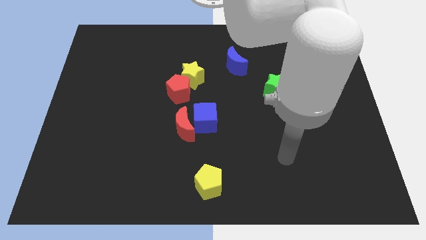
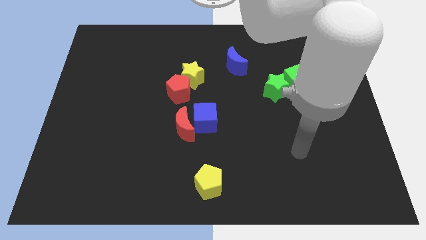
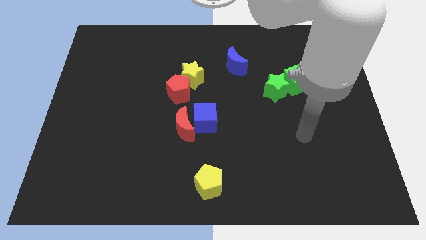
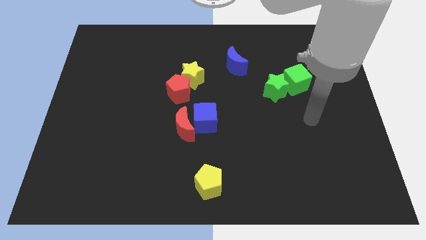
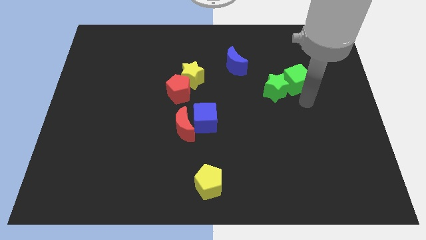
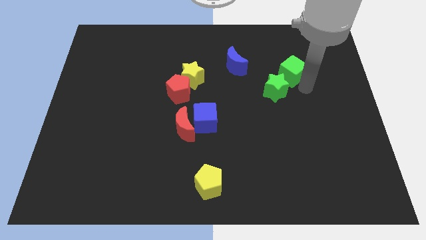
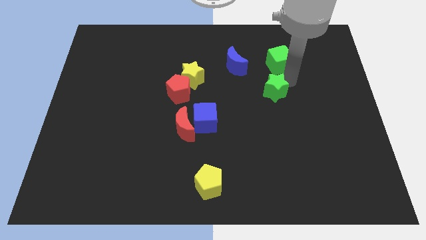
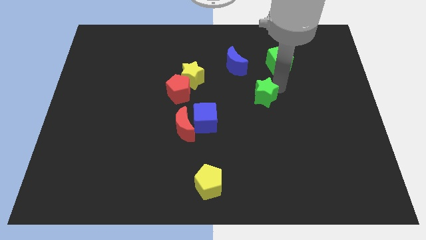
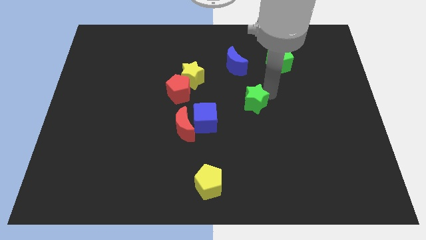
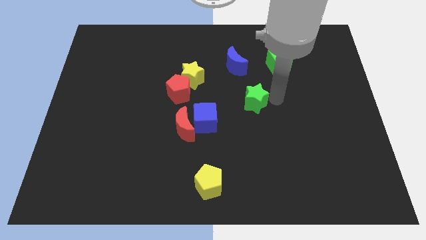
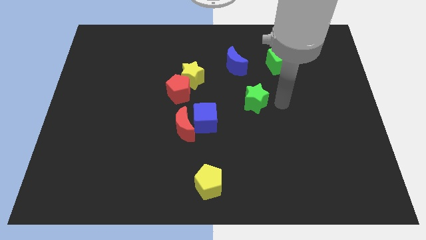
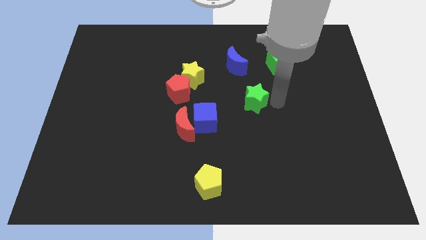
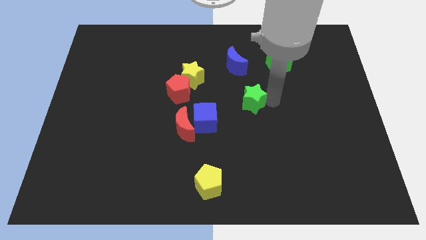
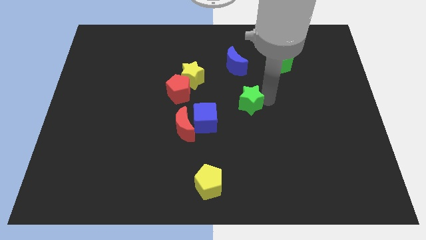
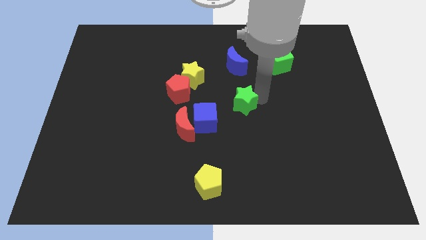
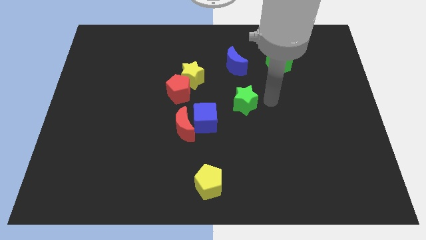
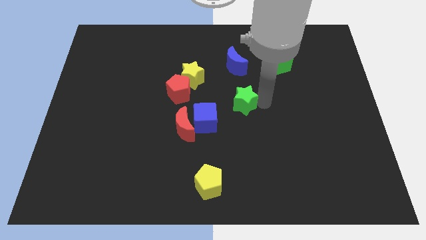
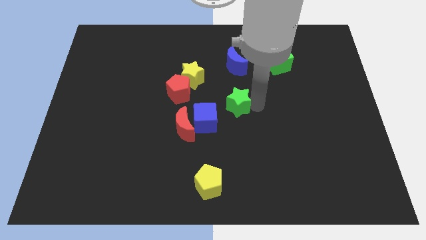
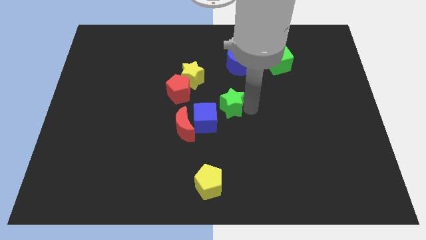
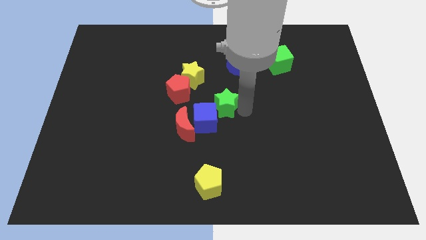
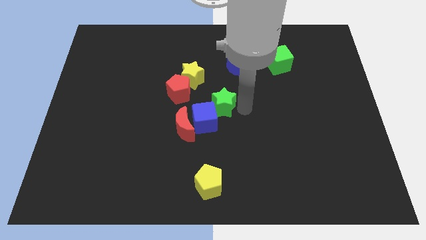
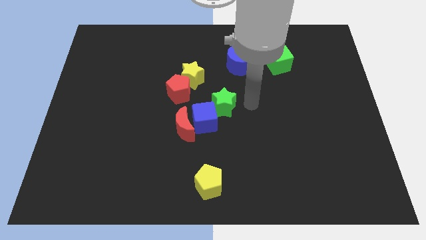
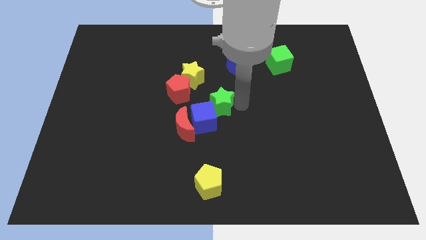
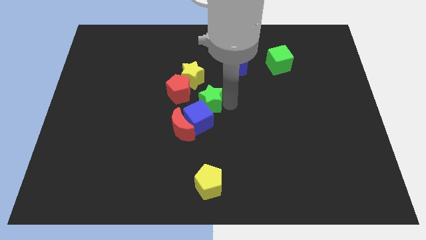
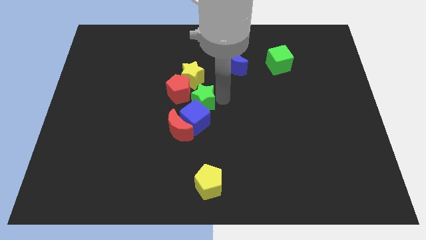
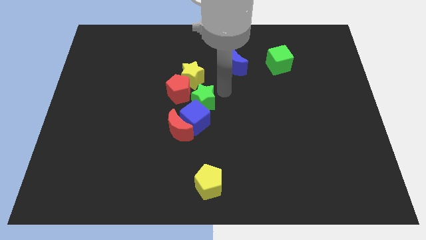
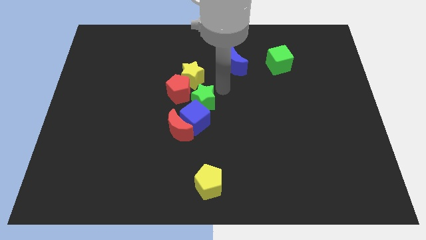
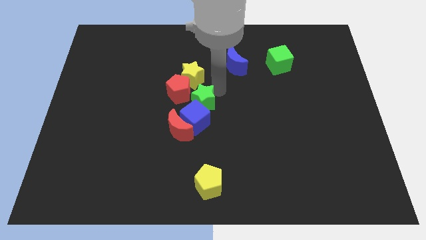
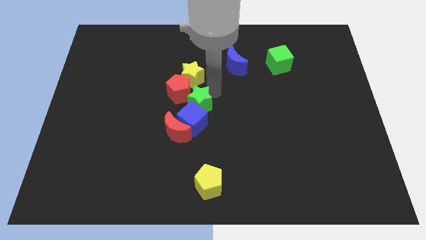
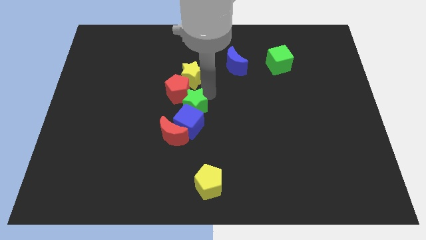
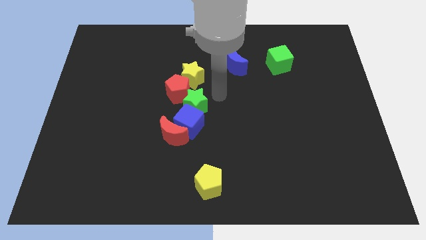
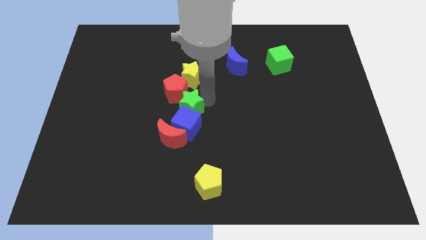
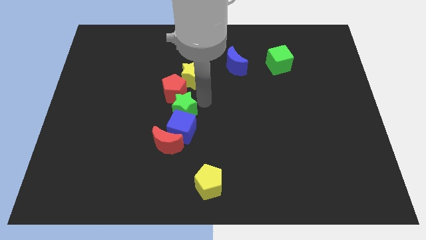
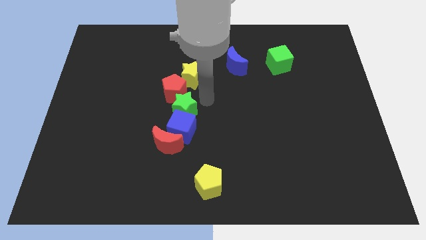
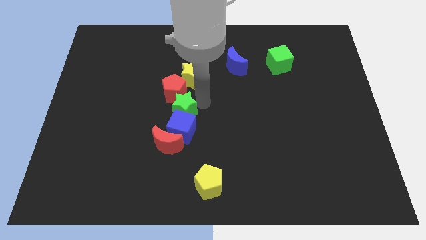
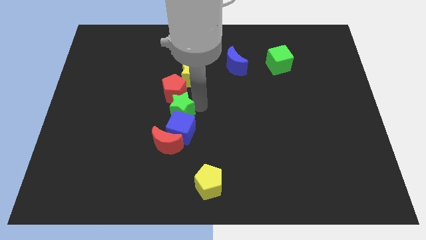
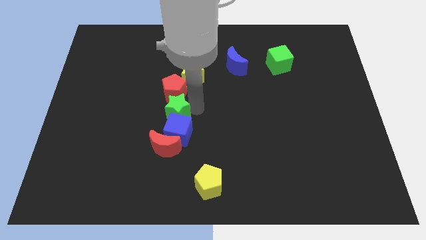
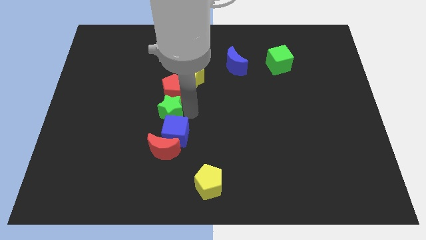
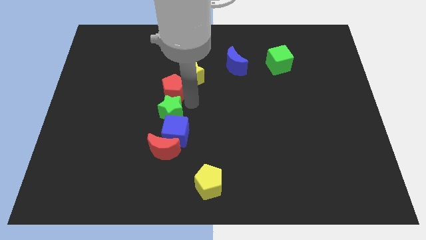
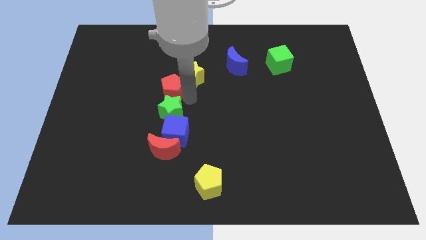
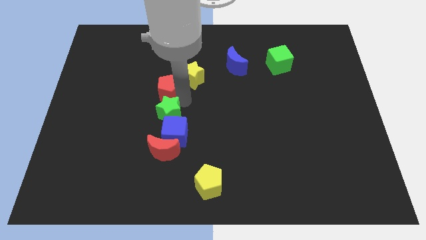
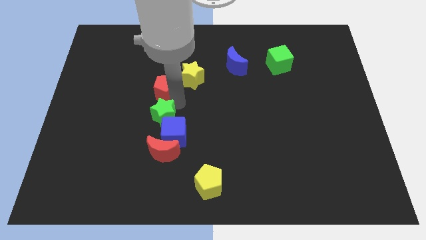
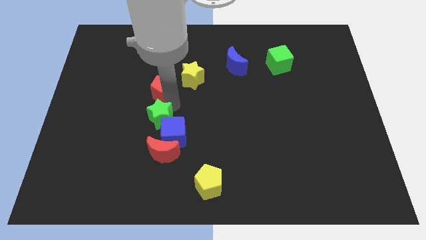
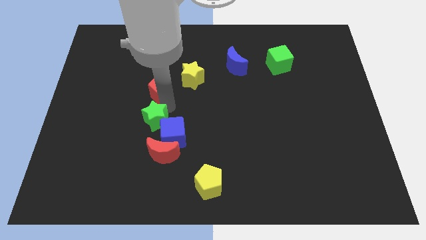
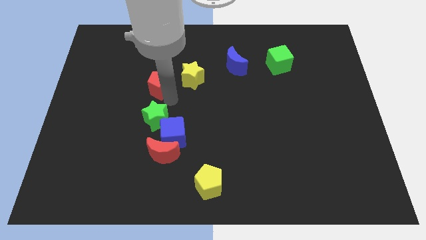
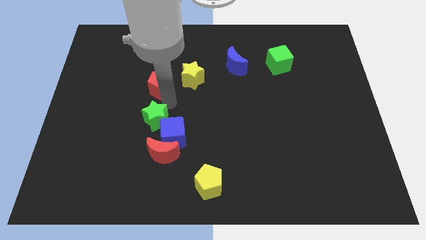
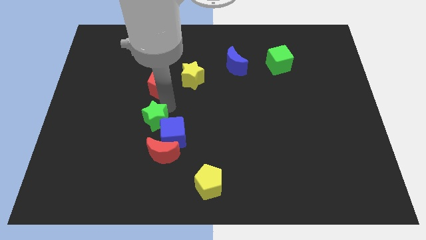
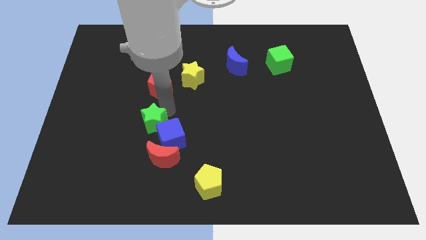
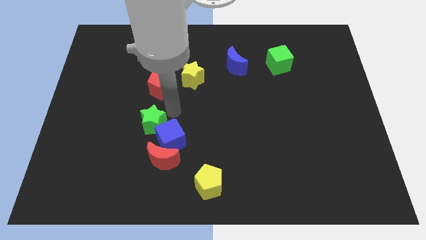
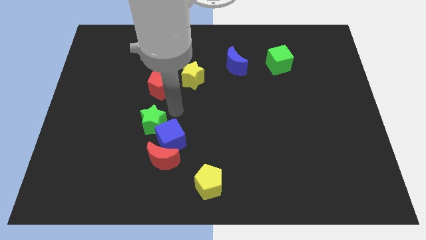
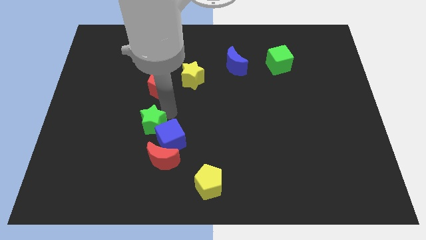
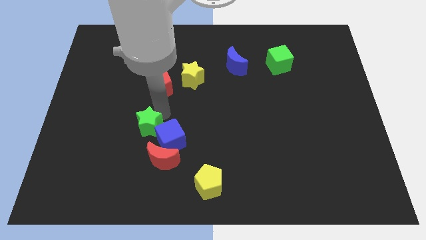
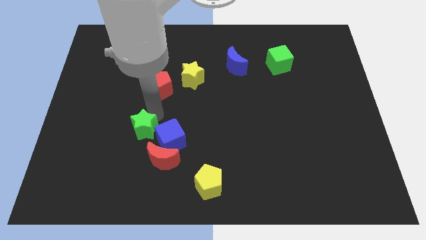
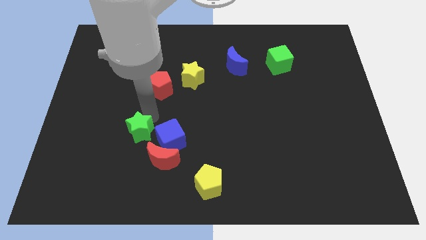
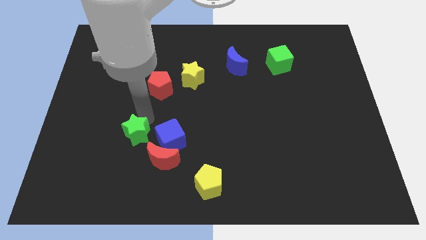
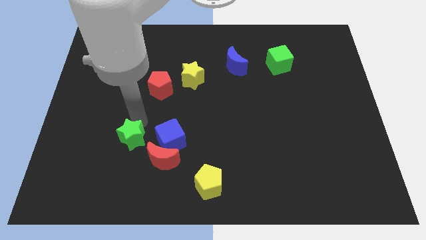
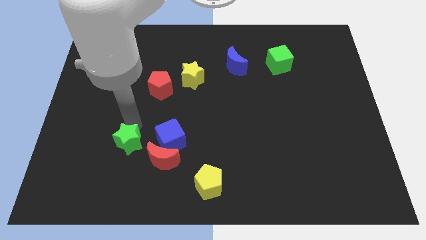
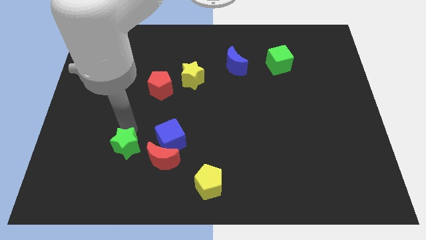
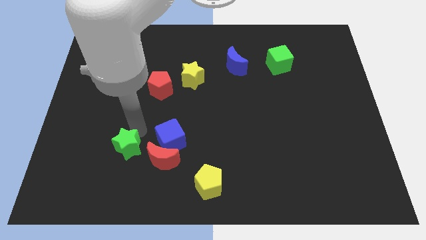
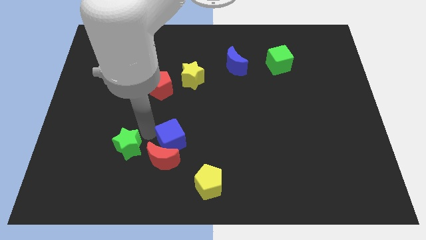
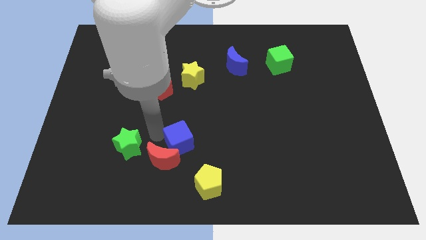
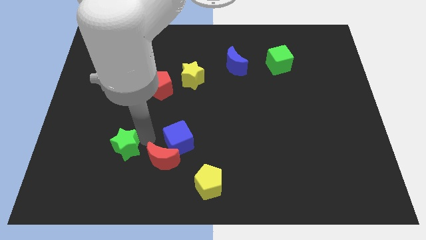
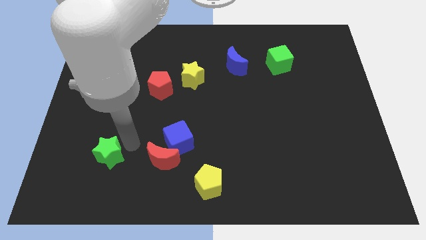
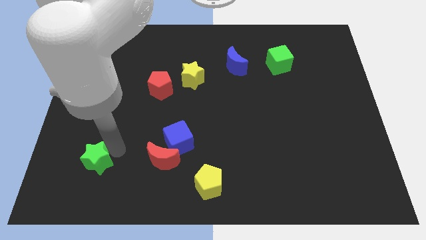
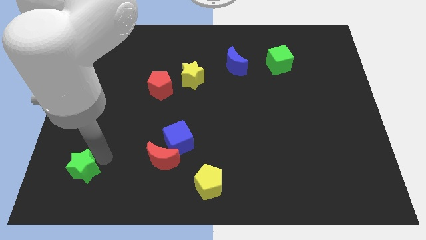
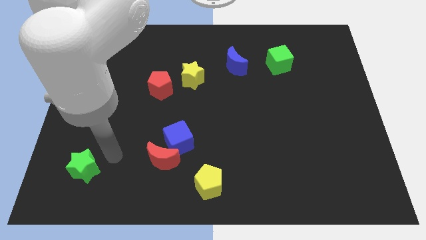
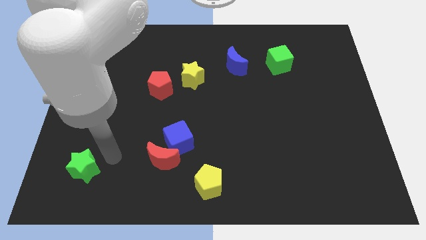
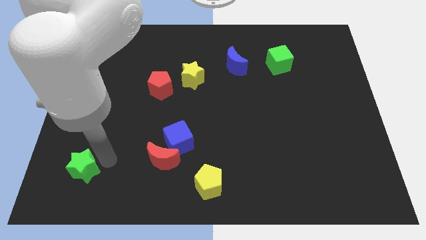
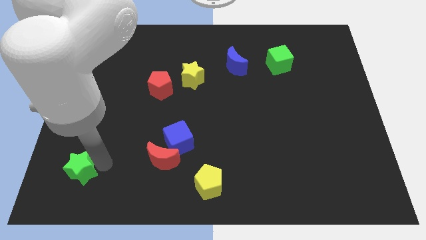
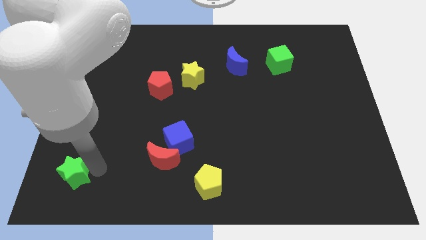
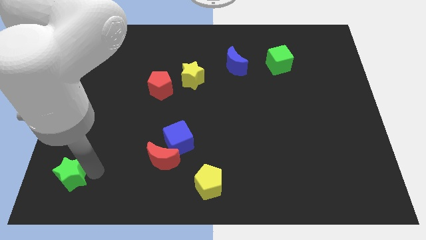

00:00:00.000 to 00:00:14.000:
put the green star to the bottom left corner
